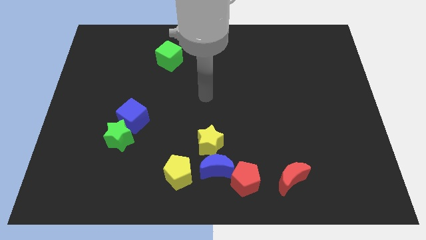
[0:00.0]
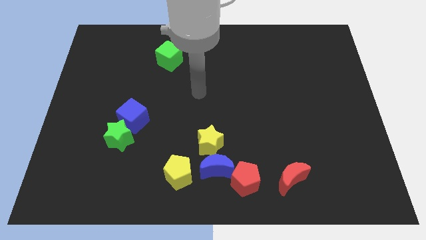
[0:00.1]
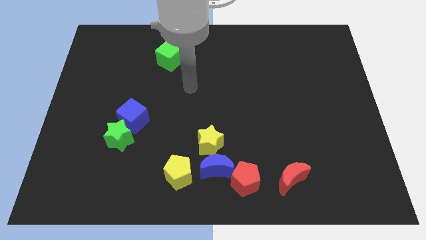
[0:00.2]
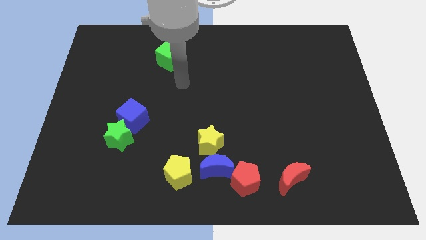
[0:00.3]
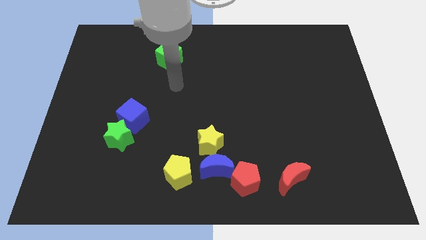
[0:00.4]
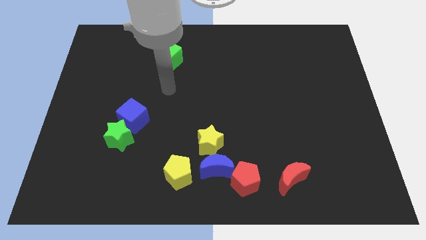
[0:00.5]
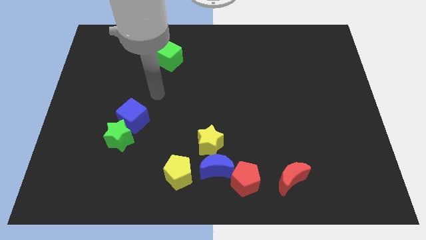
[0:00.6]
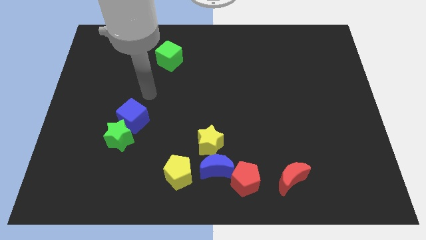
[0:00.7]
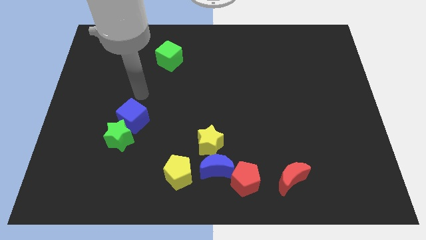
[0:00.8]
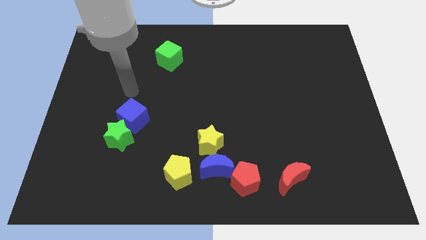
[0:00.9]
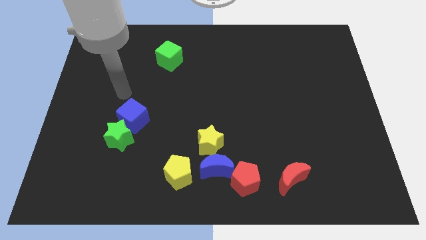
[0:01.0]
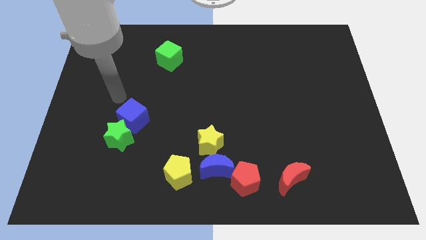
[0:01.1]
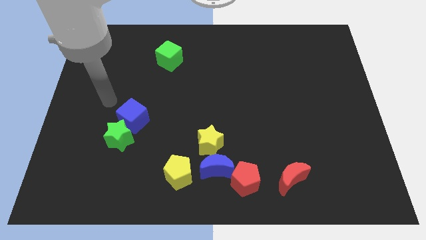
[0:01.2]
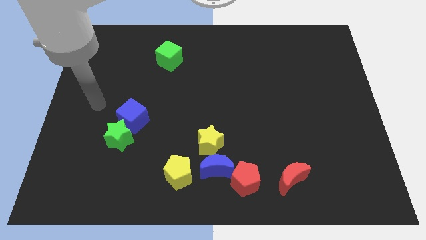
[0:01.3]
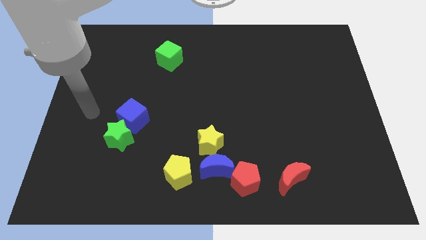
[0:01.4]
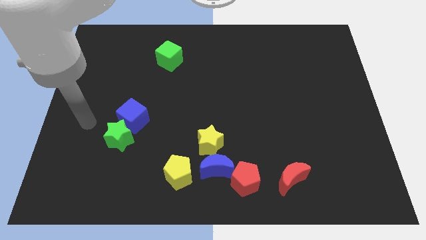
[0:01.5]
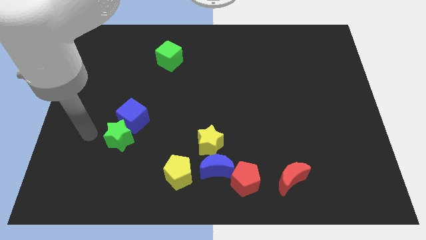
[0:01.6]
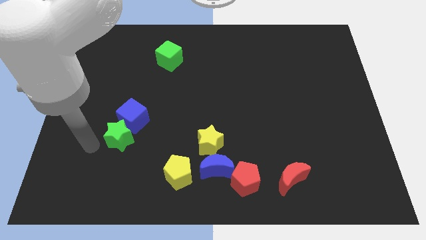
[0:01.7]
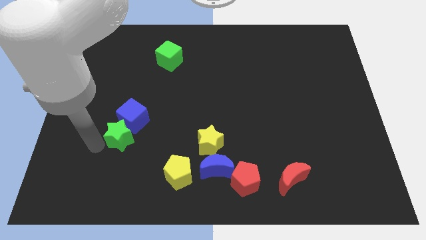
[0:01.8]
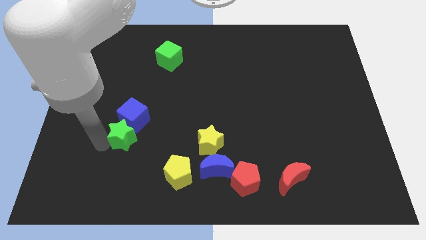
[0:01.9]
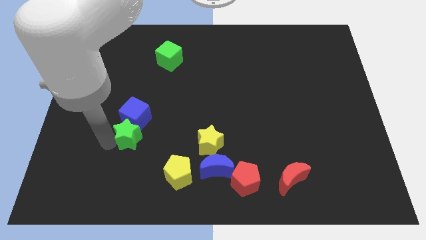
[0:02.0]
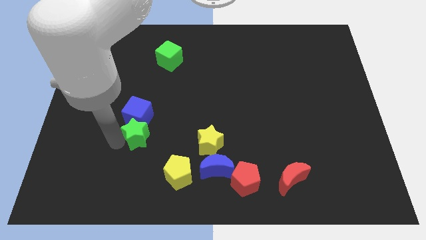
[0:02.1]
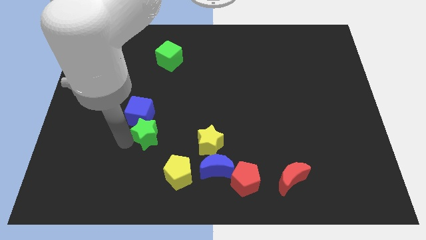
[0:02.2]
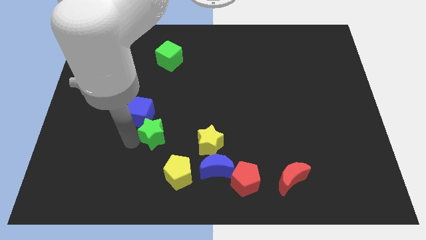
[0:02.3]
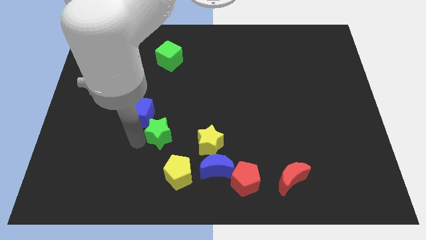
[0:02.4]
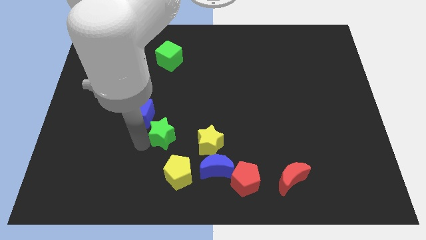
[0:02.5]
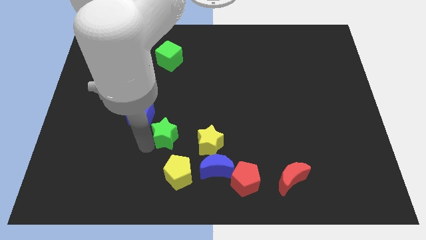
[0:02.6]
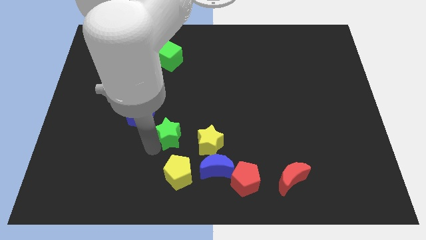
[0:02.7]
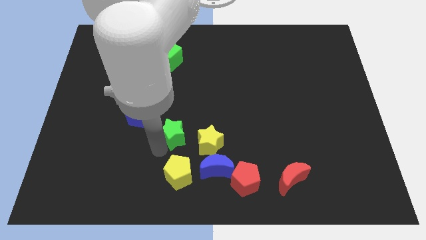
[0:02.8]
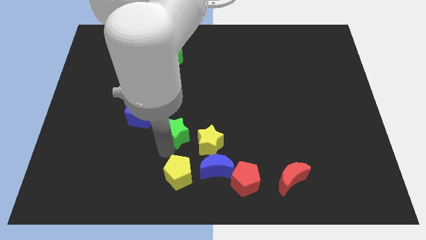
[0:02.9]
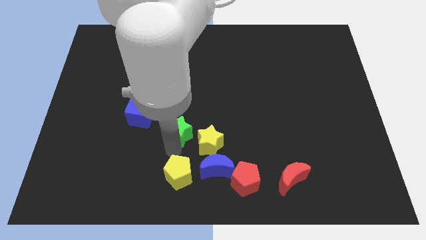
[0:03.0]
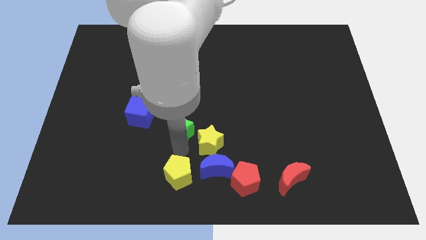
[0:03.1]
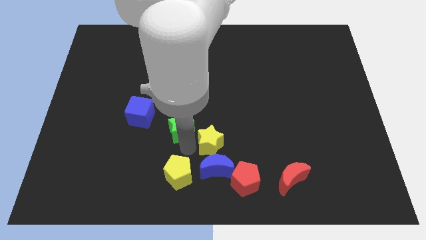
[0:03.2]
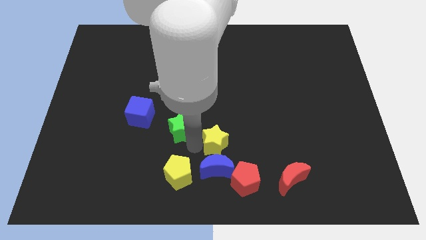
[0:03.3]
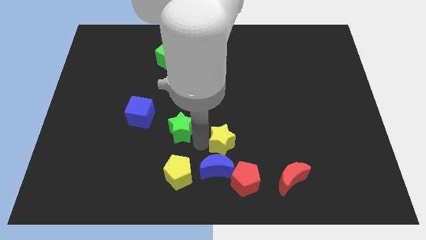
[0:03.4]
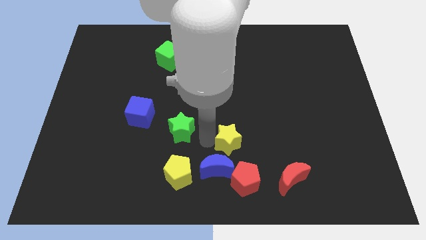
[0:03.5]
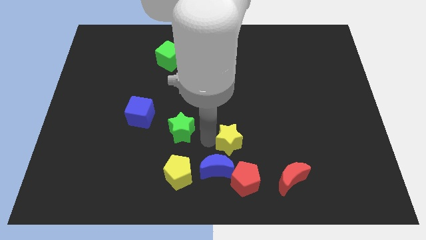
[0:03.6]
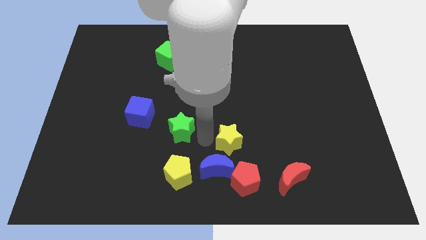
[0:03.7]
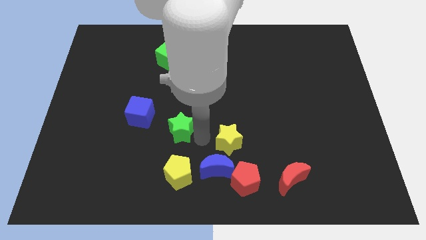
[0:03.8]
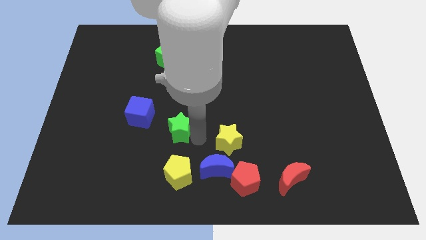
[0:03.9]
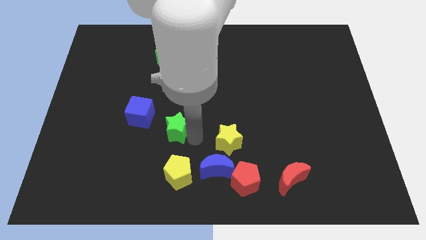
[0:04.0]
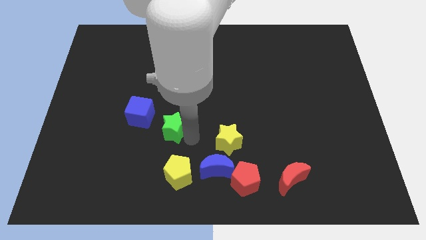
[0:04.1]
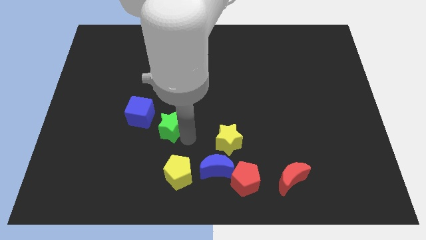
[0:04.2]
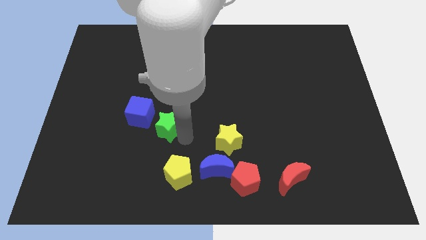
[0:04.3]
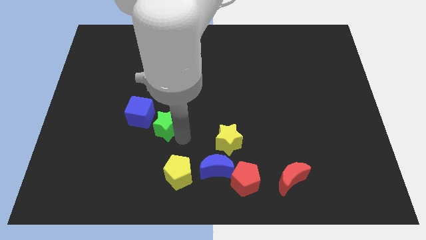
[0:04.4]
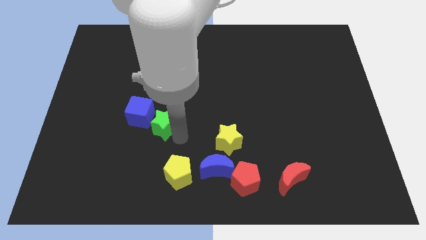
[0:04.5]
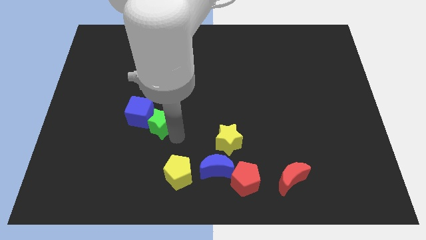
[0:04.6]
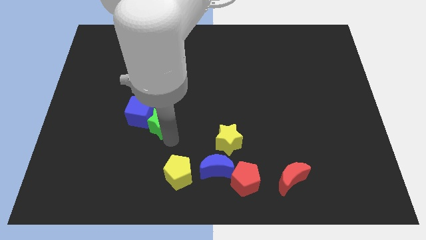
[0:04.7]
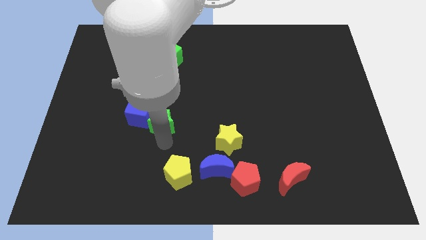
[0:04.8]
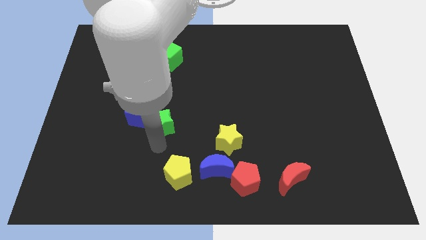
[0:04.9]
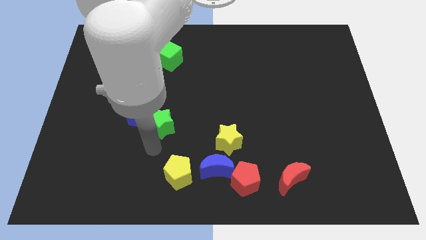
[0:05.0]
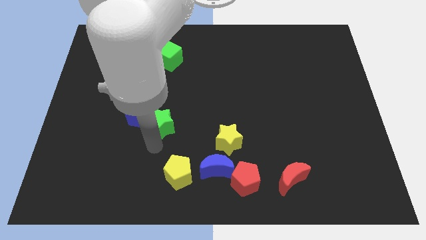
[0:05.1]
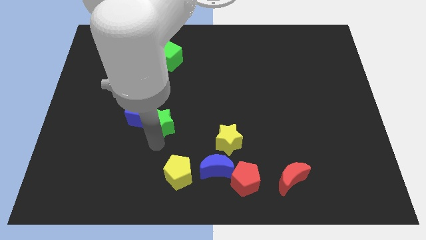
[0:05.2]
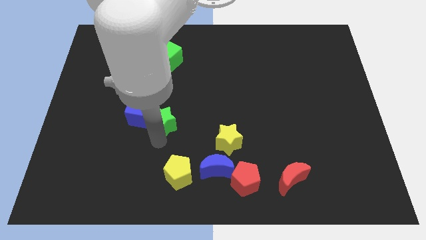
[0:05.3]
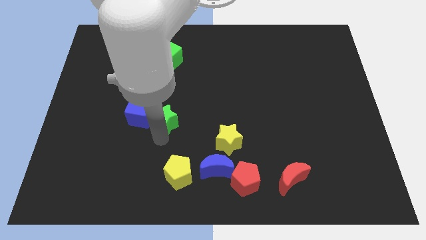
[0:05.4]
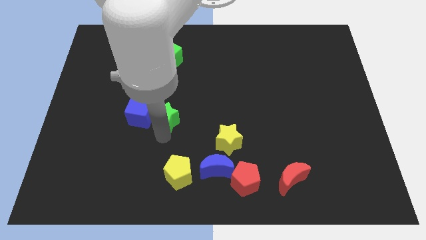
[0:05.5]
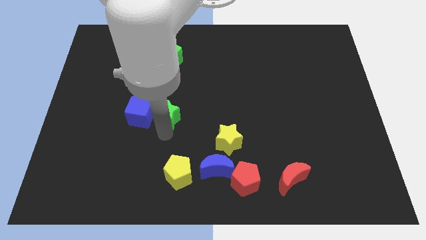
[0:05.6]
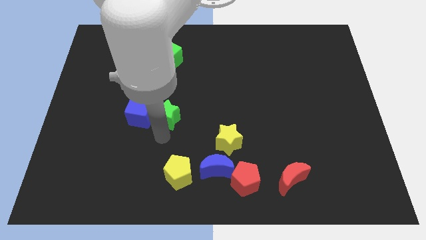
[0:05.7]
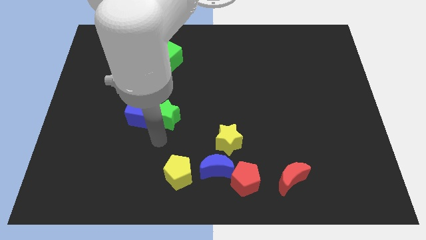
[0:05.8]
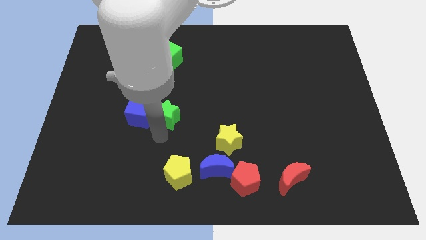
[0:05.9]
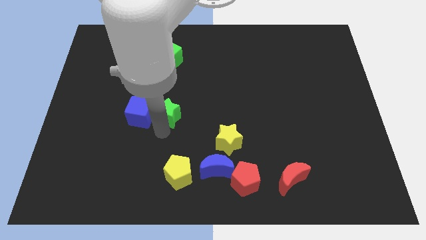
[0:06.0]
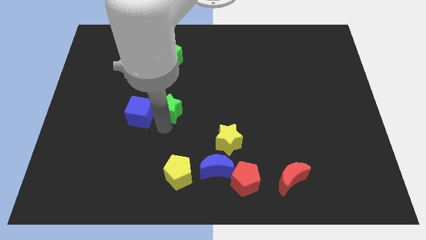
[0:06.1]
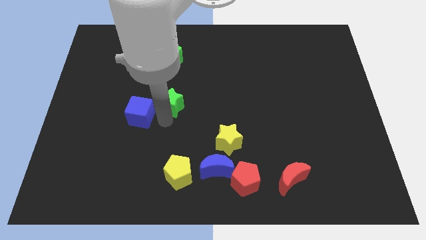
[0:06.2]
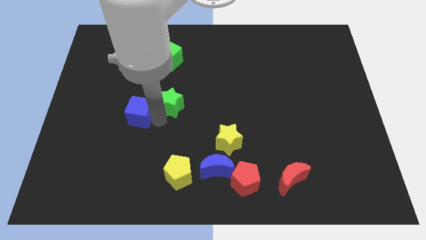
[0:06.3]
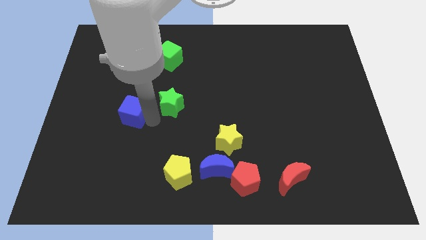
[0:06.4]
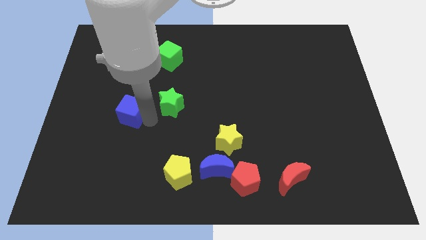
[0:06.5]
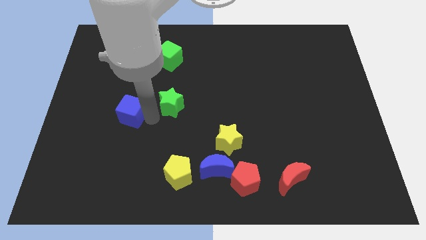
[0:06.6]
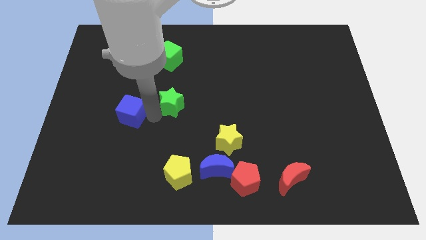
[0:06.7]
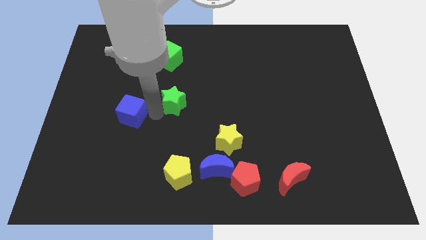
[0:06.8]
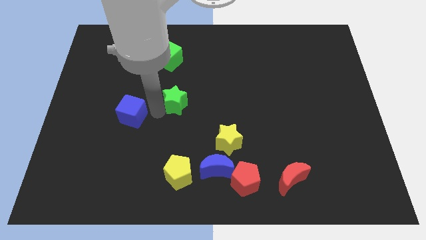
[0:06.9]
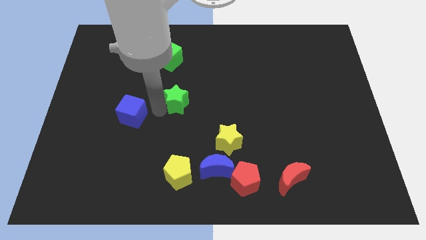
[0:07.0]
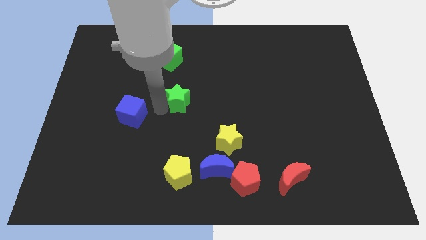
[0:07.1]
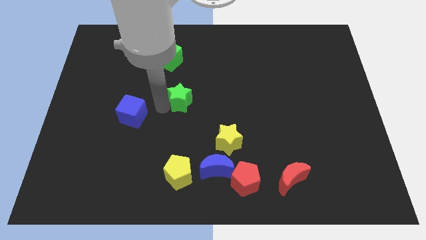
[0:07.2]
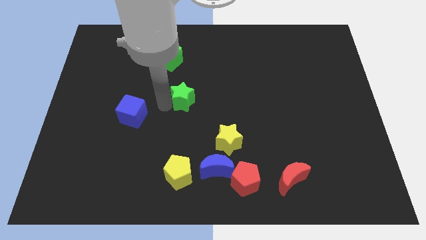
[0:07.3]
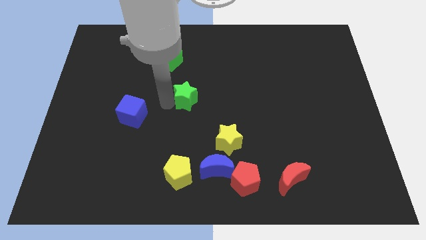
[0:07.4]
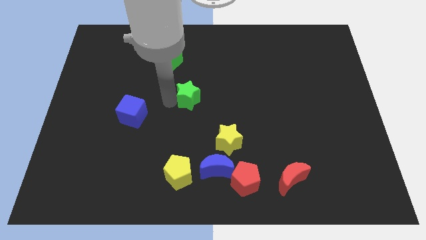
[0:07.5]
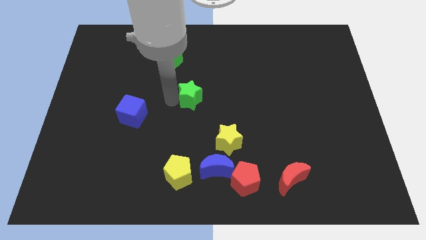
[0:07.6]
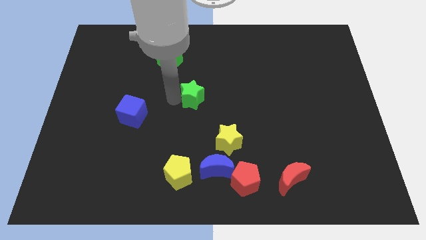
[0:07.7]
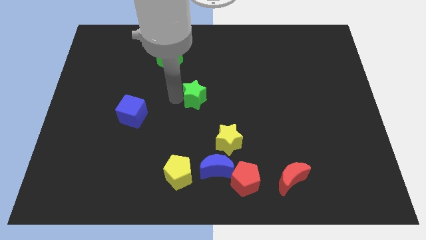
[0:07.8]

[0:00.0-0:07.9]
move the green star diagonally up and to the right

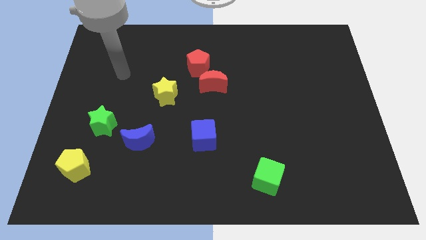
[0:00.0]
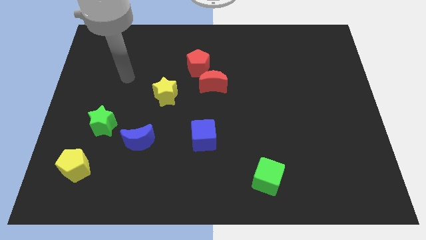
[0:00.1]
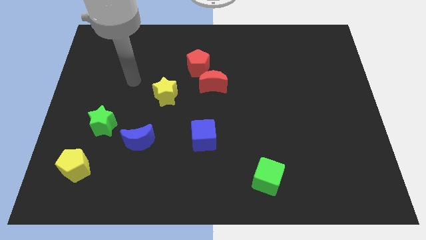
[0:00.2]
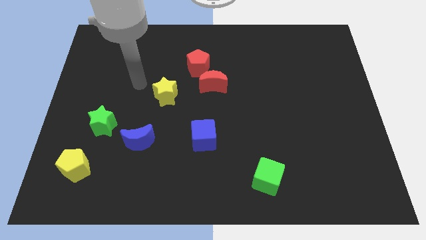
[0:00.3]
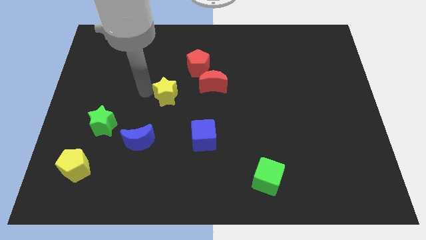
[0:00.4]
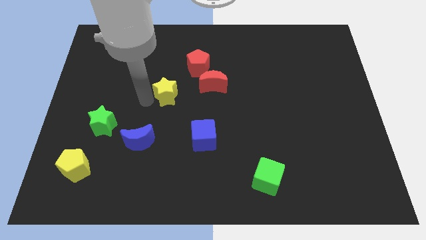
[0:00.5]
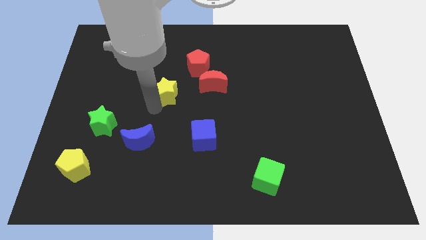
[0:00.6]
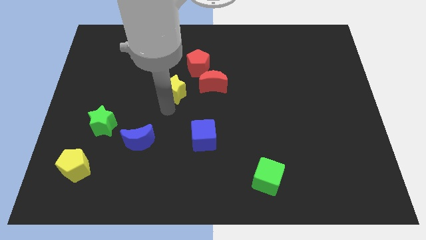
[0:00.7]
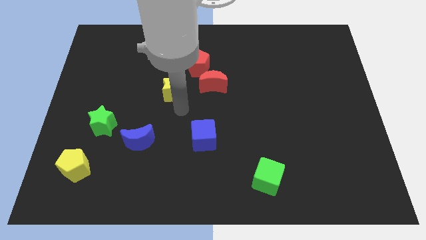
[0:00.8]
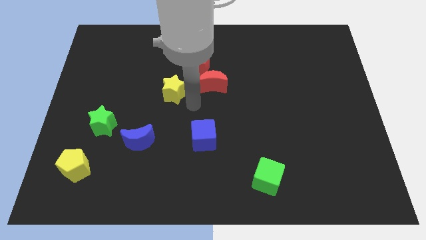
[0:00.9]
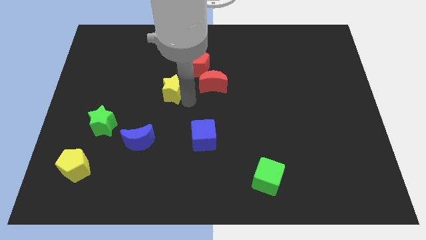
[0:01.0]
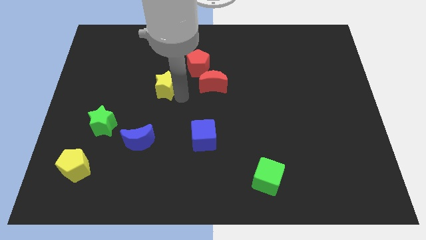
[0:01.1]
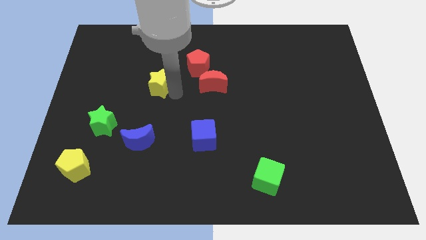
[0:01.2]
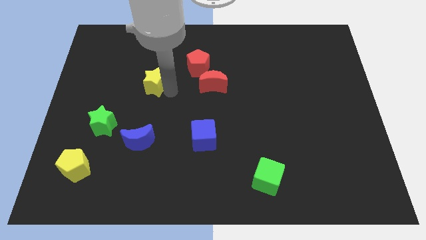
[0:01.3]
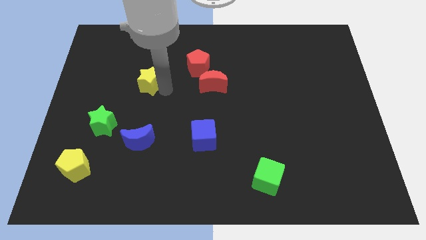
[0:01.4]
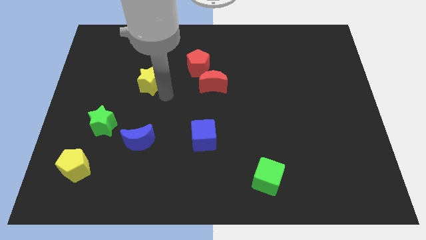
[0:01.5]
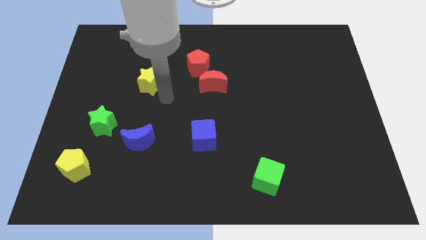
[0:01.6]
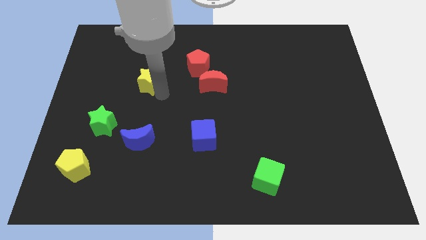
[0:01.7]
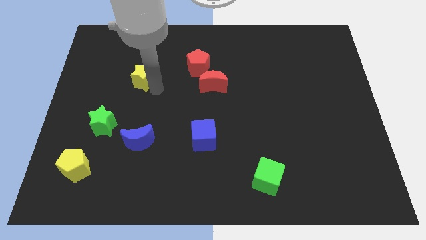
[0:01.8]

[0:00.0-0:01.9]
move the yellow star a little bit upwards and left
